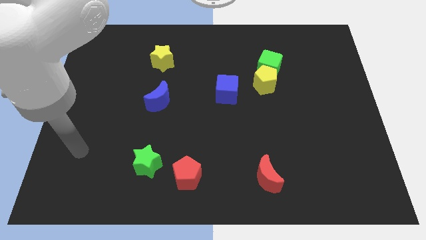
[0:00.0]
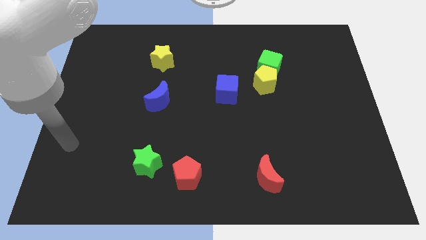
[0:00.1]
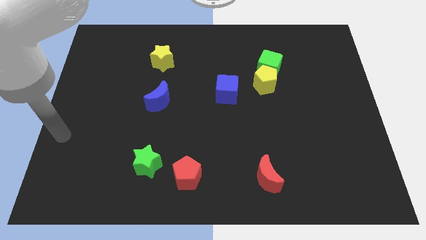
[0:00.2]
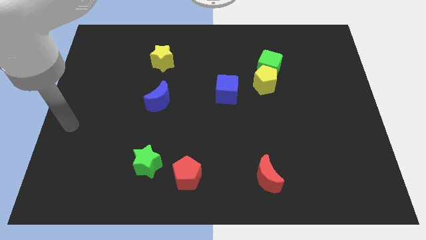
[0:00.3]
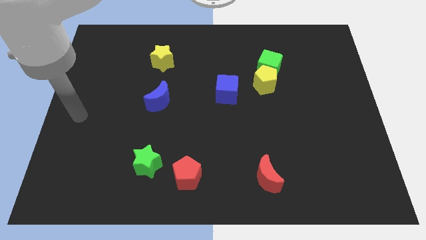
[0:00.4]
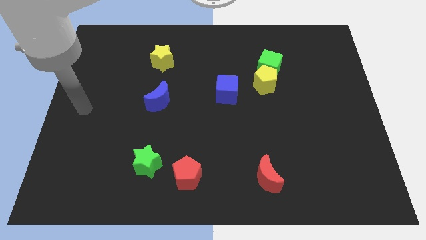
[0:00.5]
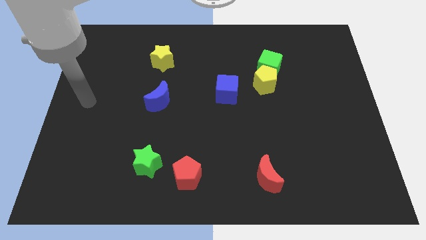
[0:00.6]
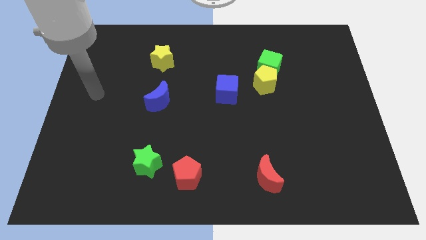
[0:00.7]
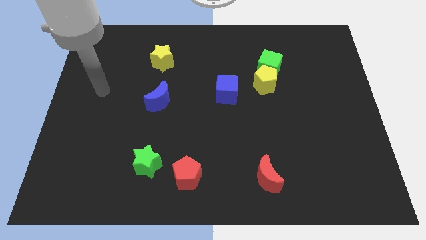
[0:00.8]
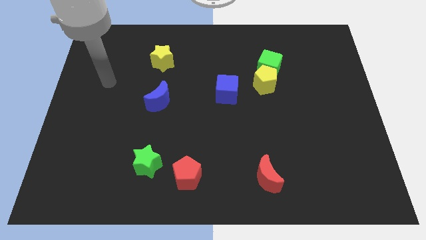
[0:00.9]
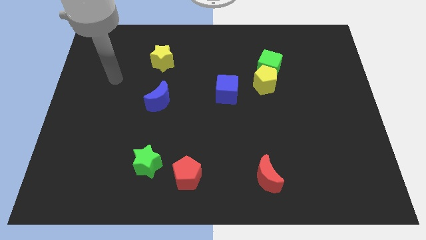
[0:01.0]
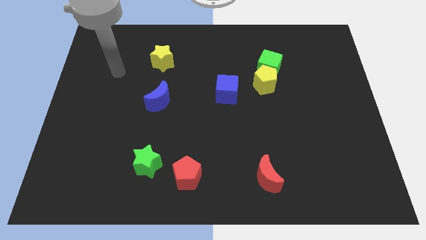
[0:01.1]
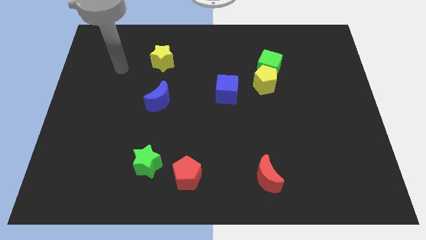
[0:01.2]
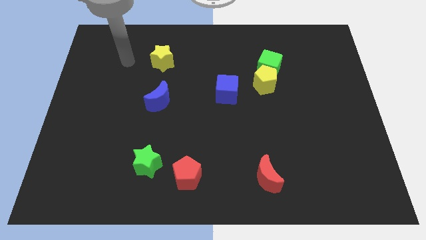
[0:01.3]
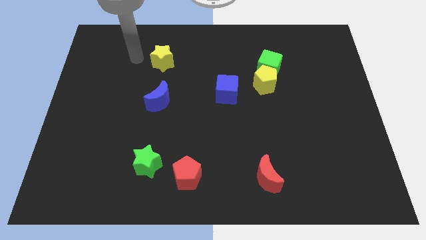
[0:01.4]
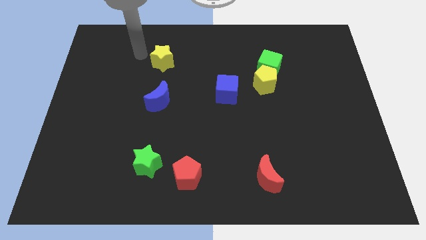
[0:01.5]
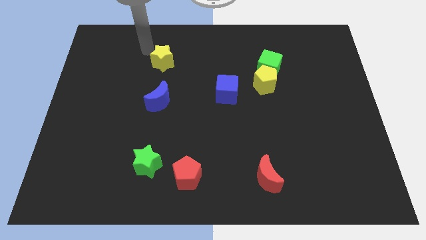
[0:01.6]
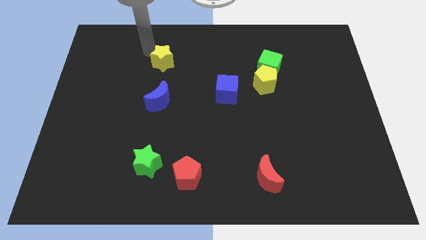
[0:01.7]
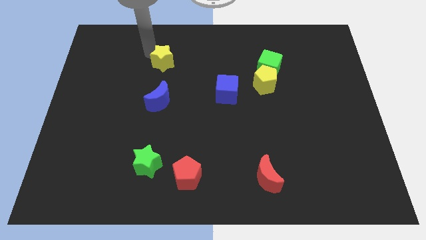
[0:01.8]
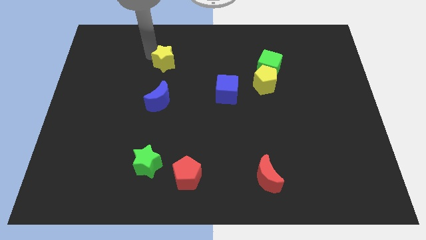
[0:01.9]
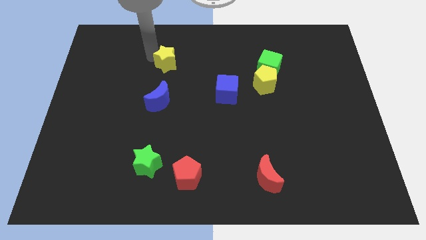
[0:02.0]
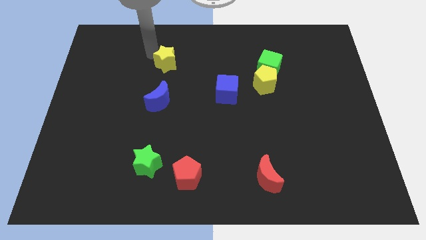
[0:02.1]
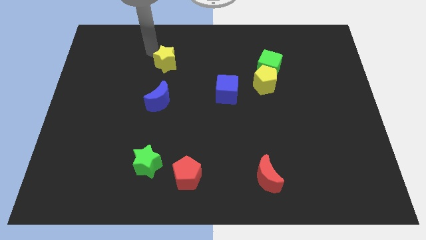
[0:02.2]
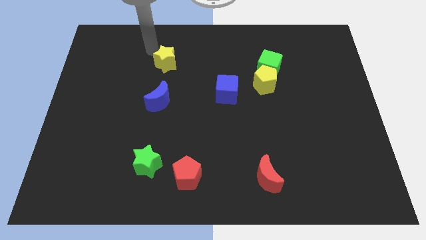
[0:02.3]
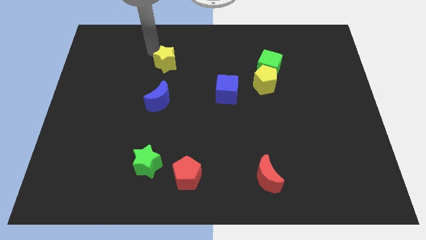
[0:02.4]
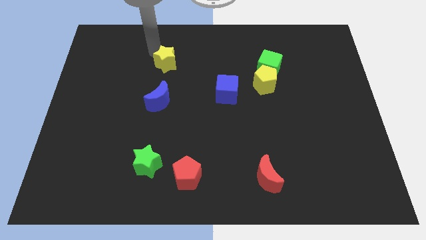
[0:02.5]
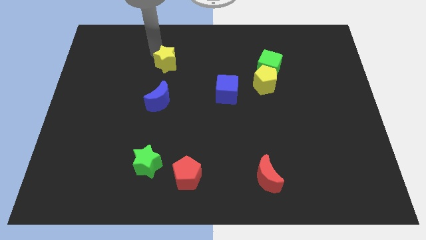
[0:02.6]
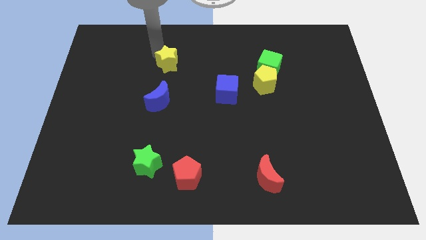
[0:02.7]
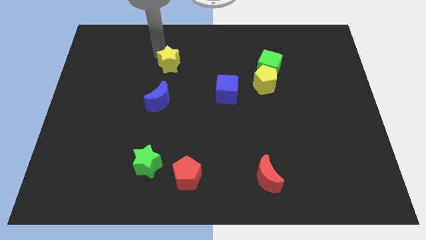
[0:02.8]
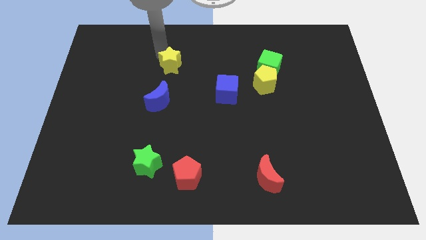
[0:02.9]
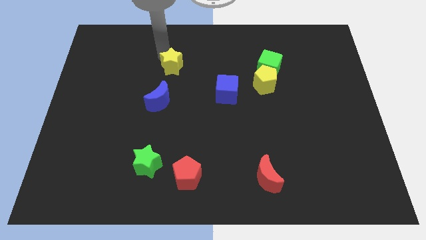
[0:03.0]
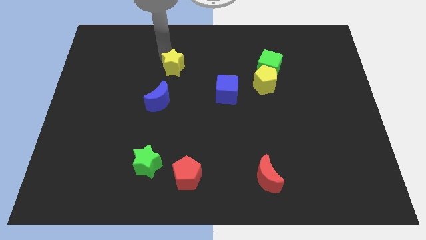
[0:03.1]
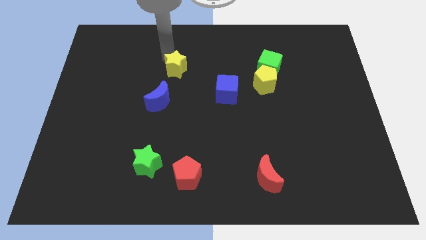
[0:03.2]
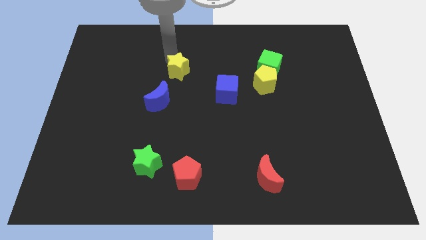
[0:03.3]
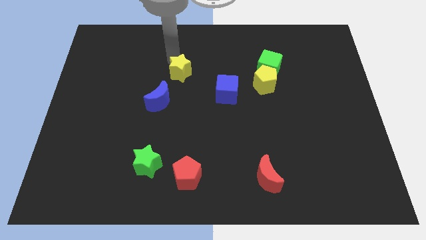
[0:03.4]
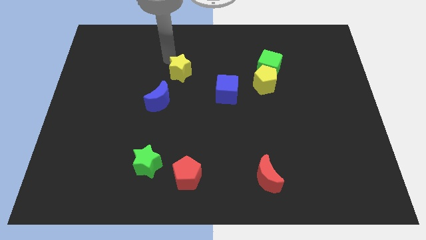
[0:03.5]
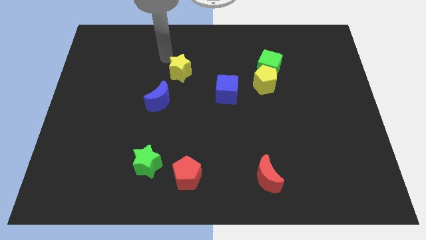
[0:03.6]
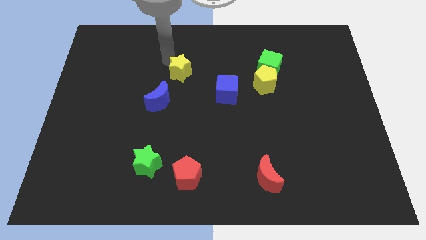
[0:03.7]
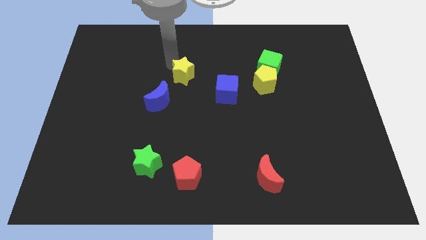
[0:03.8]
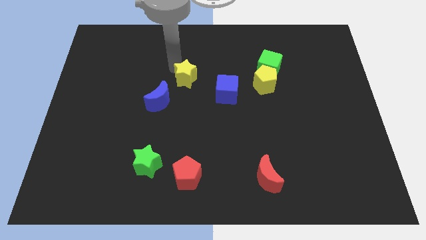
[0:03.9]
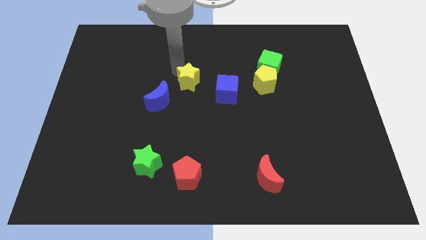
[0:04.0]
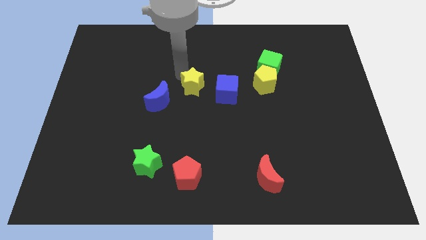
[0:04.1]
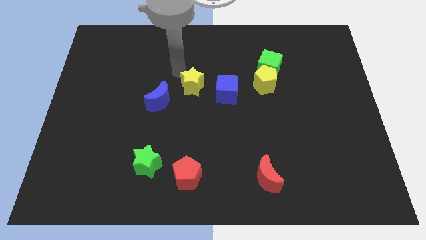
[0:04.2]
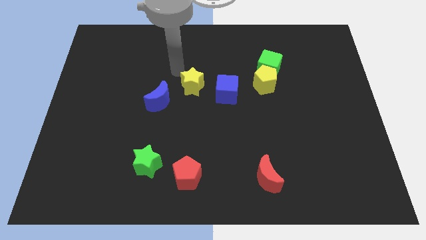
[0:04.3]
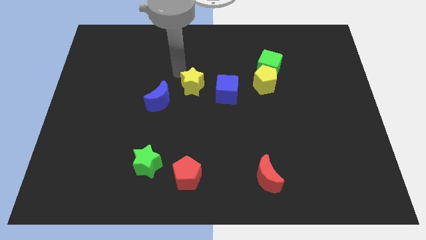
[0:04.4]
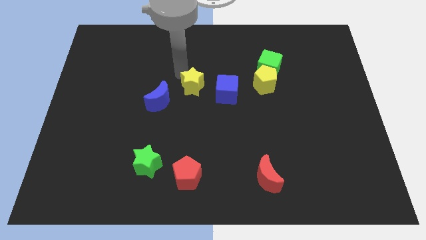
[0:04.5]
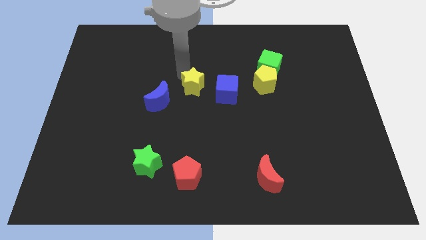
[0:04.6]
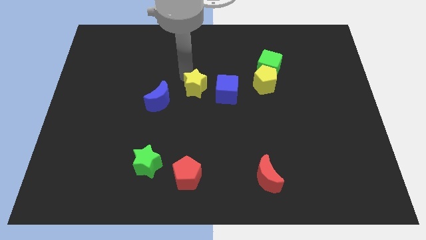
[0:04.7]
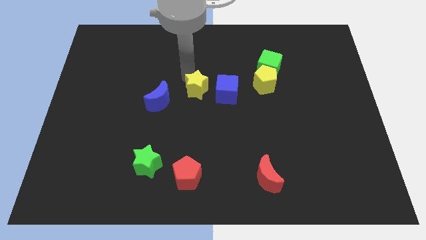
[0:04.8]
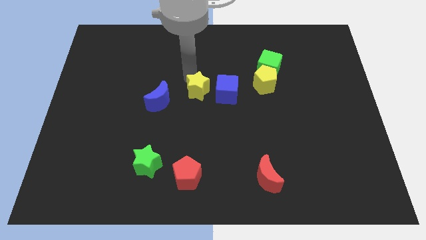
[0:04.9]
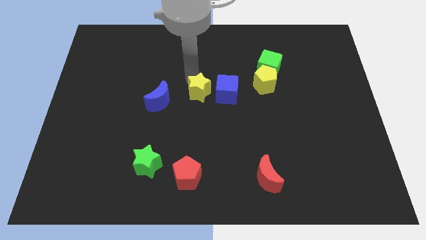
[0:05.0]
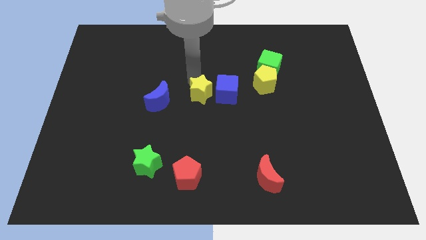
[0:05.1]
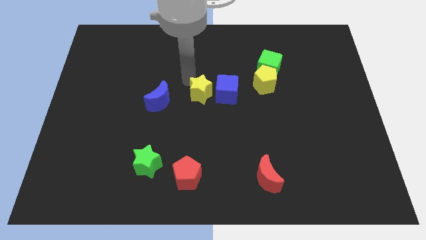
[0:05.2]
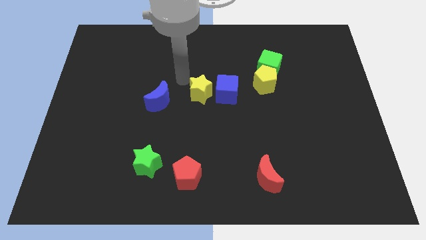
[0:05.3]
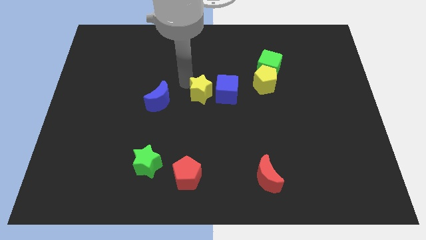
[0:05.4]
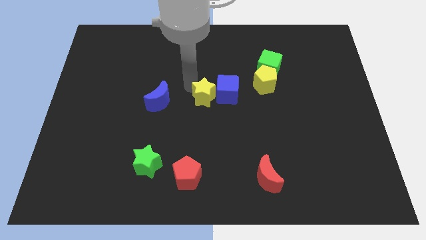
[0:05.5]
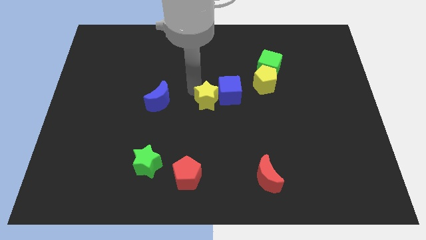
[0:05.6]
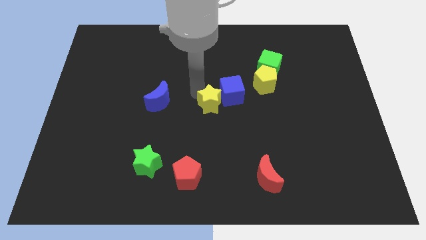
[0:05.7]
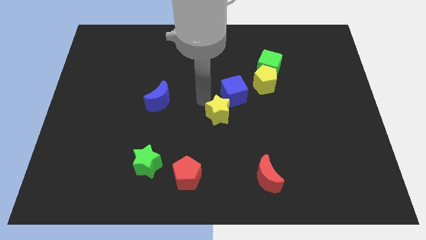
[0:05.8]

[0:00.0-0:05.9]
move the yellow star down and to the right

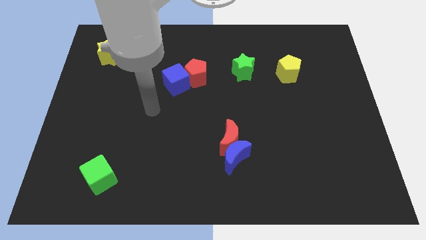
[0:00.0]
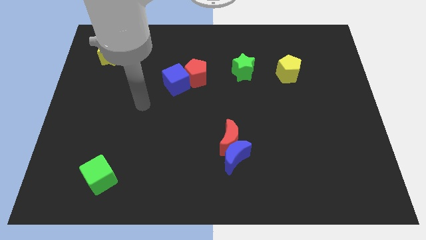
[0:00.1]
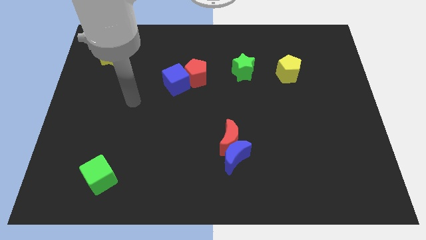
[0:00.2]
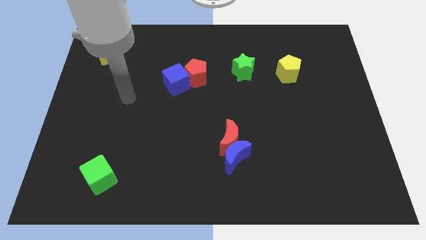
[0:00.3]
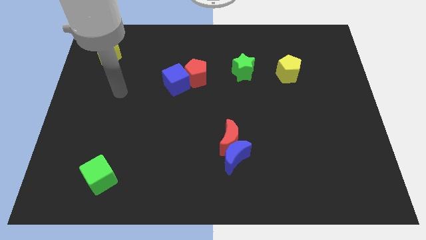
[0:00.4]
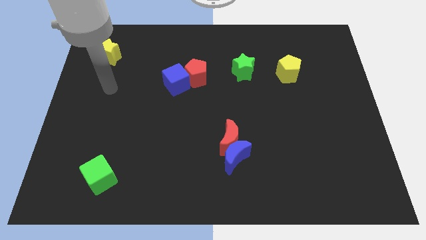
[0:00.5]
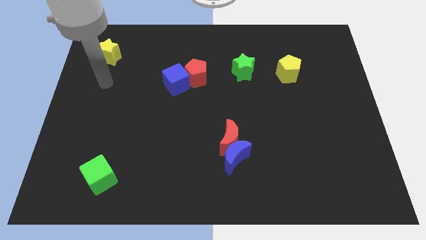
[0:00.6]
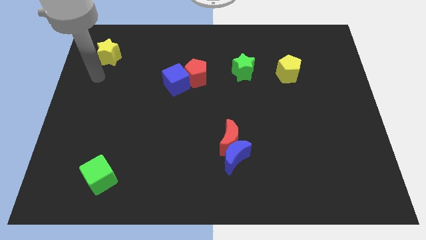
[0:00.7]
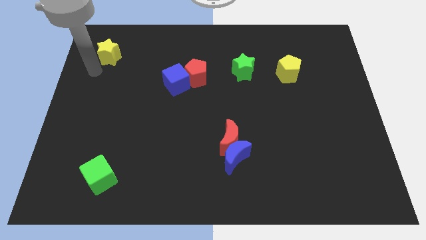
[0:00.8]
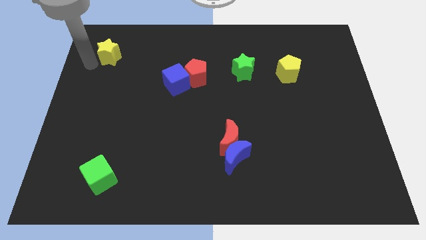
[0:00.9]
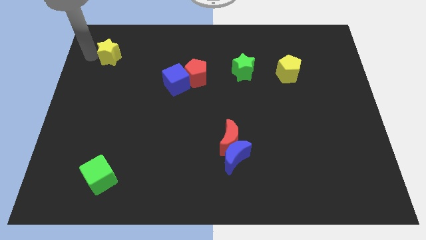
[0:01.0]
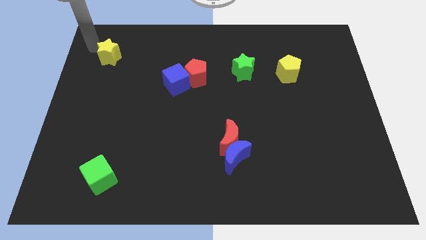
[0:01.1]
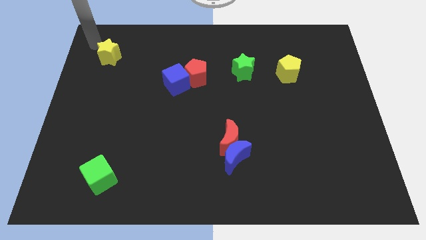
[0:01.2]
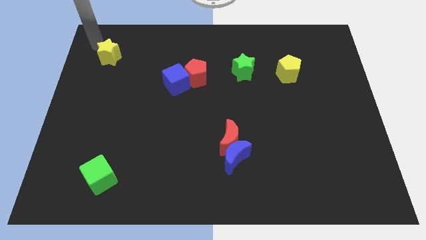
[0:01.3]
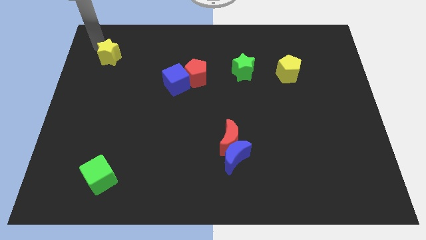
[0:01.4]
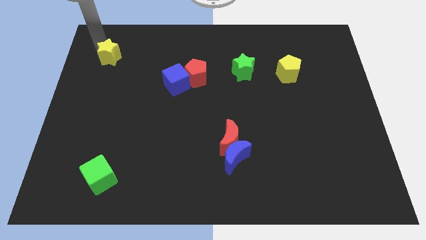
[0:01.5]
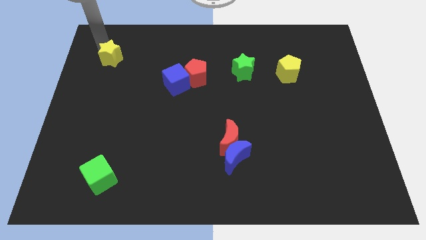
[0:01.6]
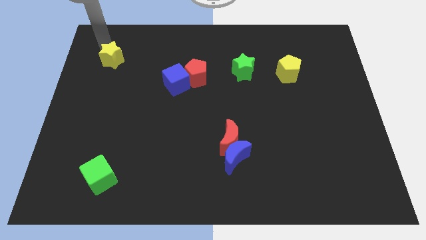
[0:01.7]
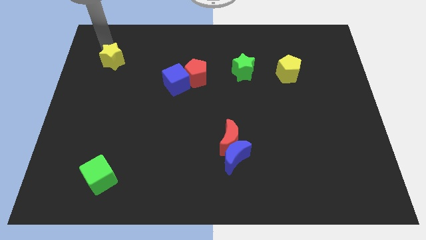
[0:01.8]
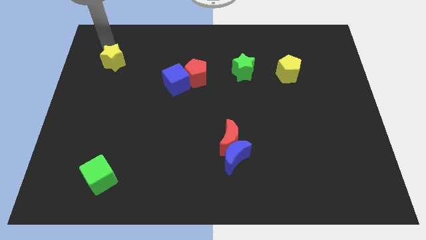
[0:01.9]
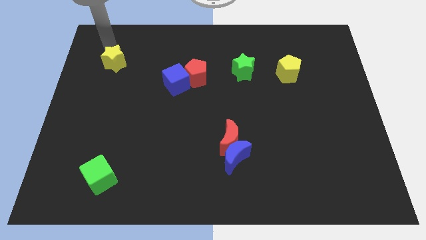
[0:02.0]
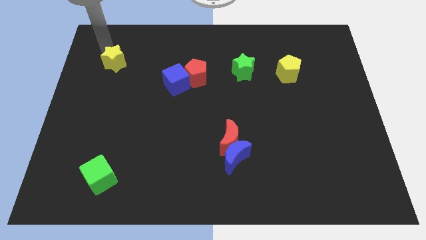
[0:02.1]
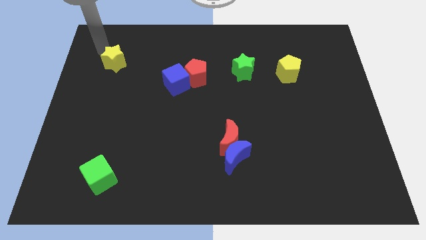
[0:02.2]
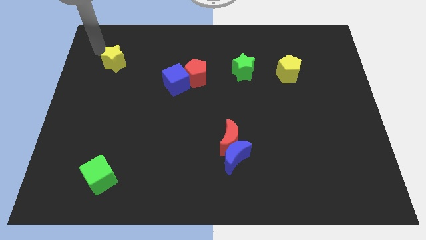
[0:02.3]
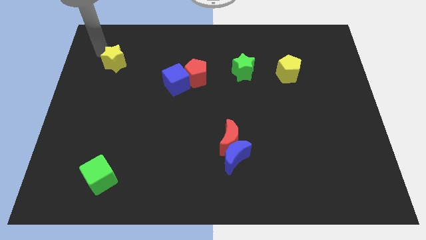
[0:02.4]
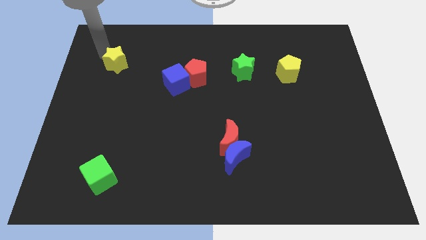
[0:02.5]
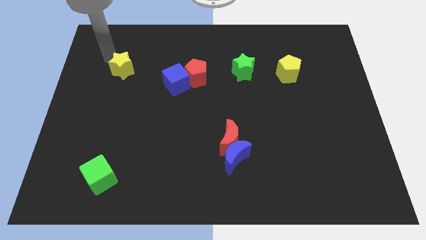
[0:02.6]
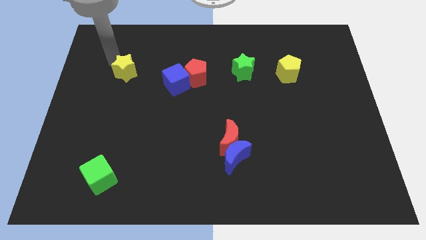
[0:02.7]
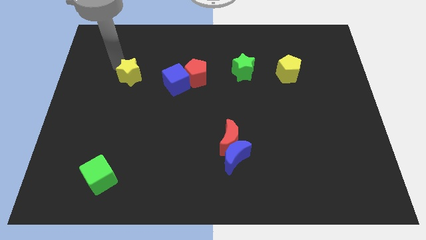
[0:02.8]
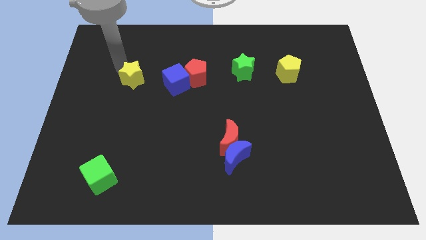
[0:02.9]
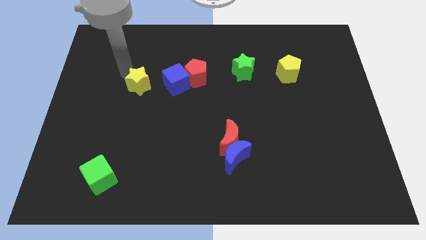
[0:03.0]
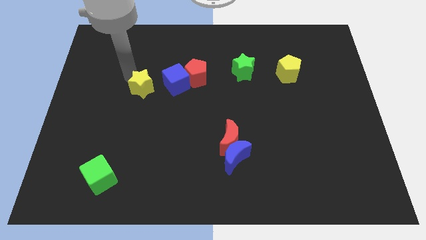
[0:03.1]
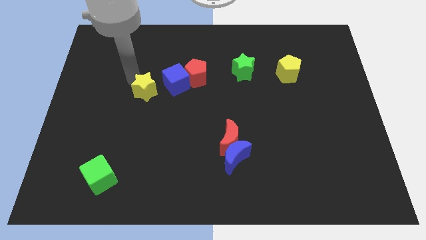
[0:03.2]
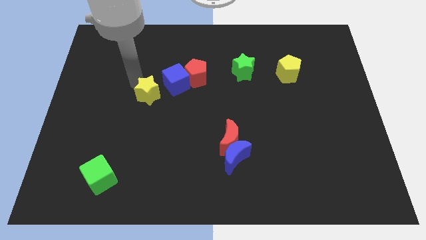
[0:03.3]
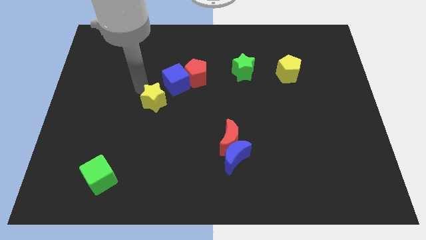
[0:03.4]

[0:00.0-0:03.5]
push the yellow star downwards and to the right diagonally
